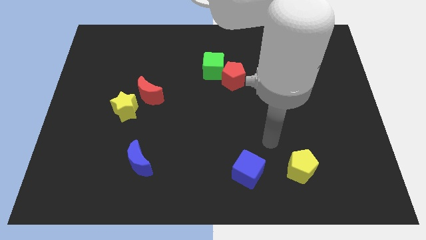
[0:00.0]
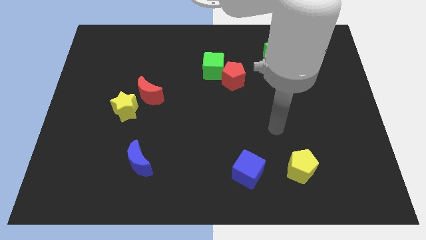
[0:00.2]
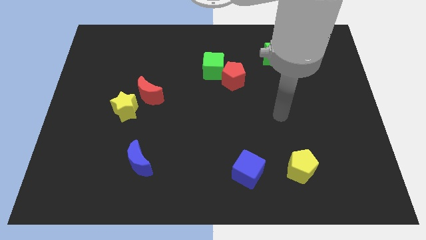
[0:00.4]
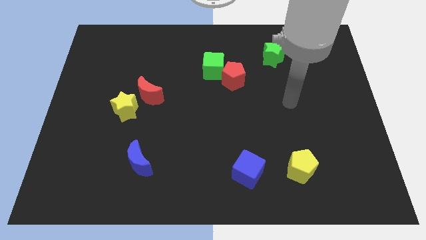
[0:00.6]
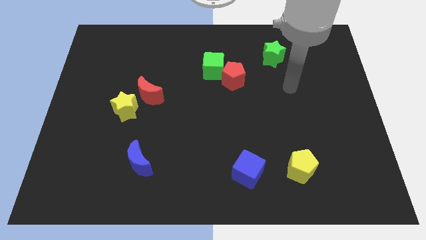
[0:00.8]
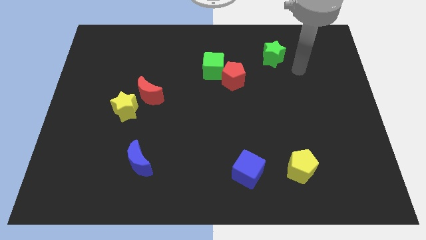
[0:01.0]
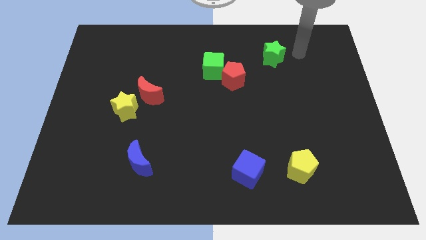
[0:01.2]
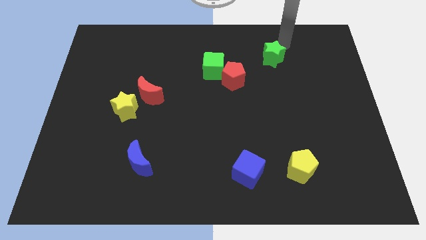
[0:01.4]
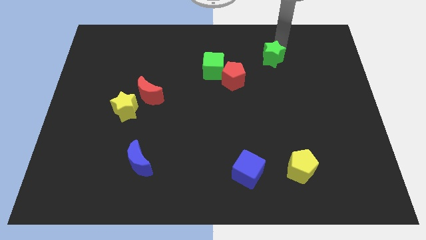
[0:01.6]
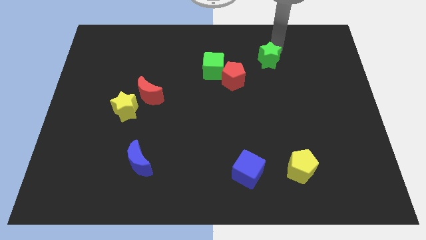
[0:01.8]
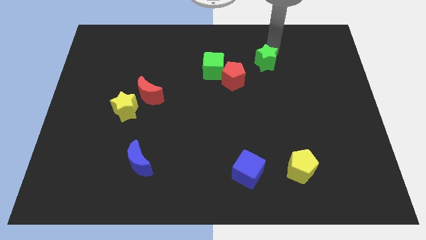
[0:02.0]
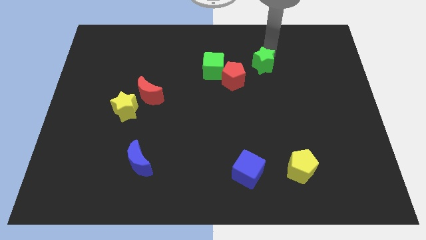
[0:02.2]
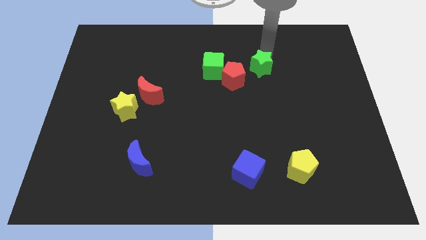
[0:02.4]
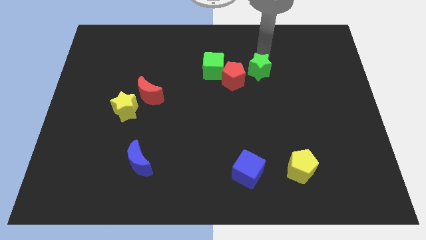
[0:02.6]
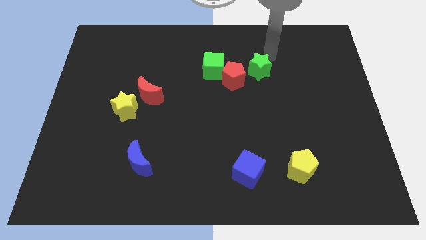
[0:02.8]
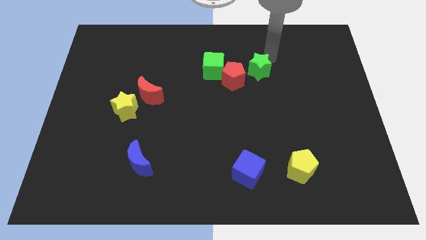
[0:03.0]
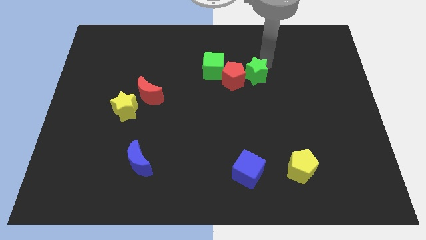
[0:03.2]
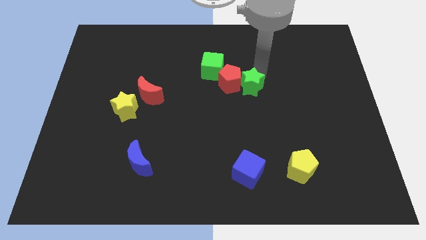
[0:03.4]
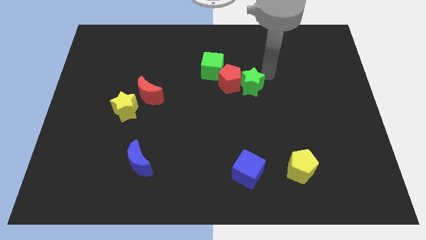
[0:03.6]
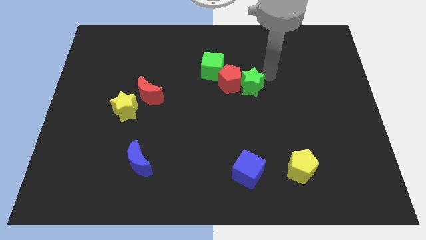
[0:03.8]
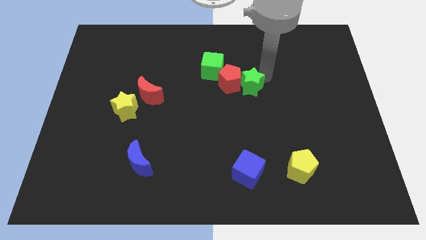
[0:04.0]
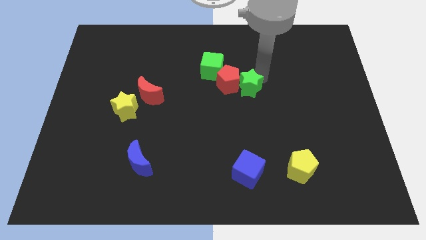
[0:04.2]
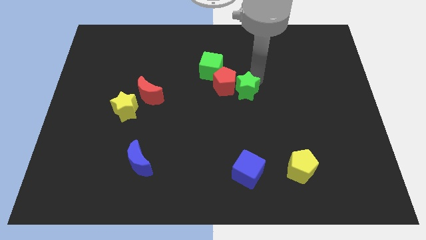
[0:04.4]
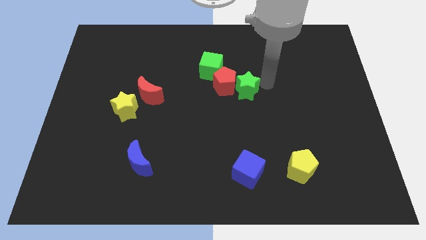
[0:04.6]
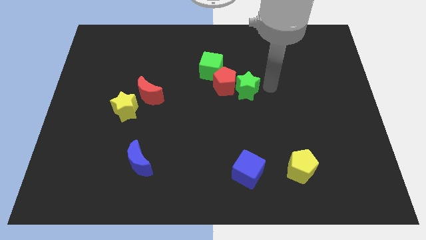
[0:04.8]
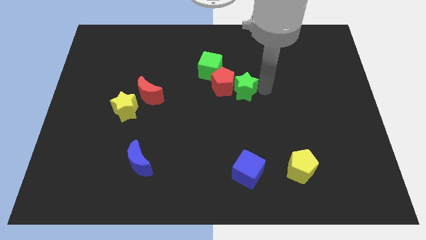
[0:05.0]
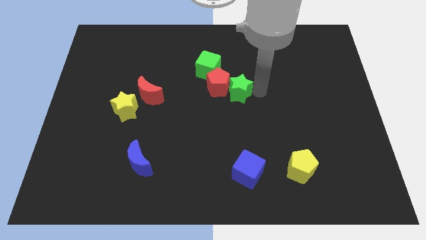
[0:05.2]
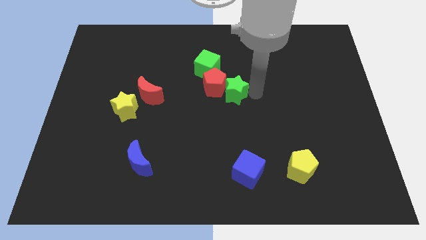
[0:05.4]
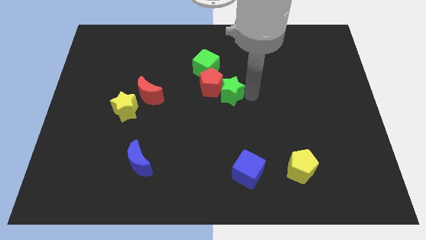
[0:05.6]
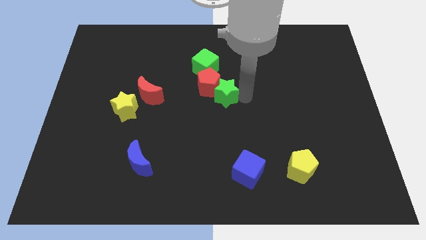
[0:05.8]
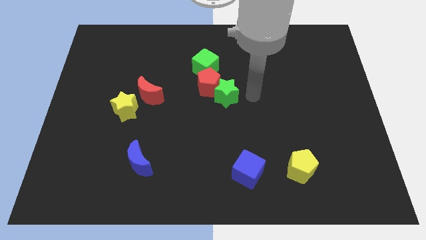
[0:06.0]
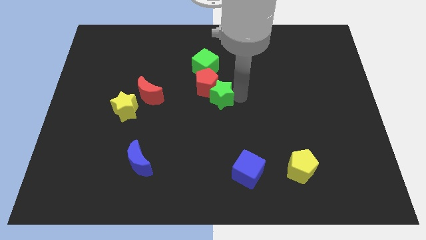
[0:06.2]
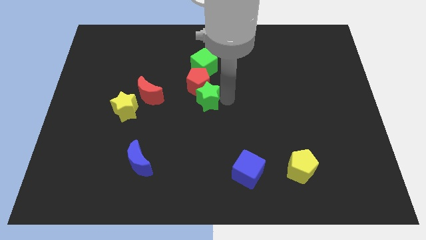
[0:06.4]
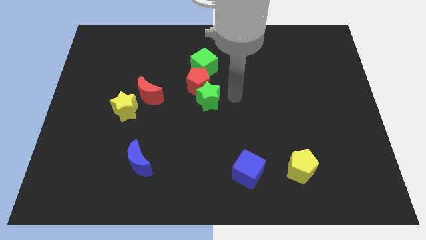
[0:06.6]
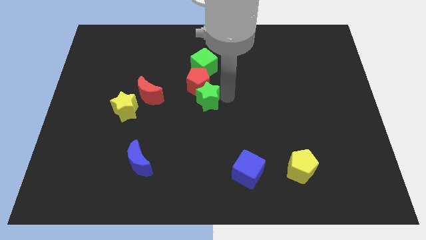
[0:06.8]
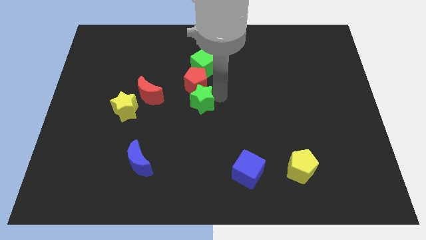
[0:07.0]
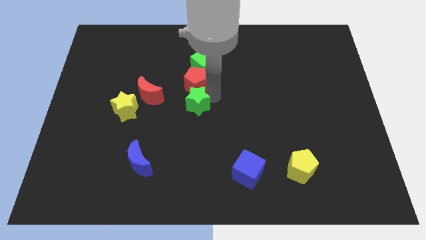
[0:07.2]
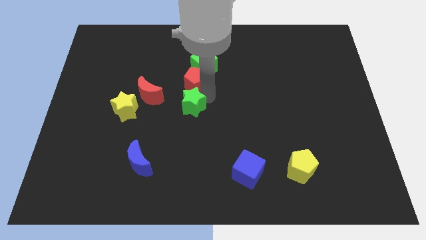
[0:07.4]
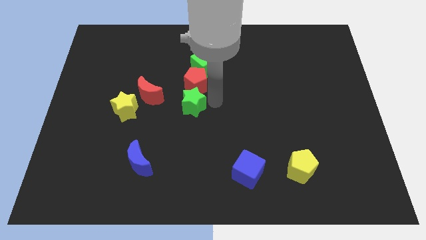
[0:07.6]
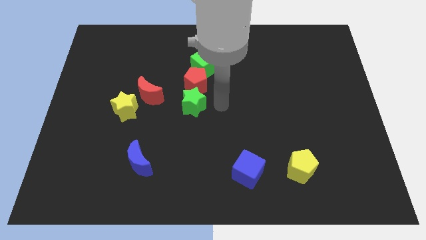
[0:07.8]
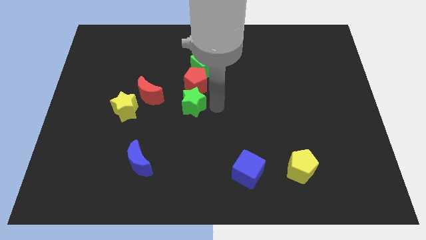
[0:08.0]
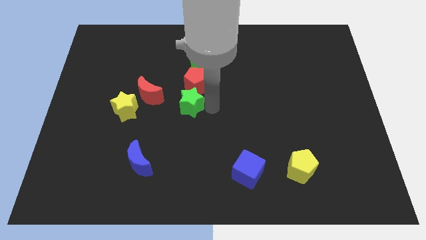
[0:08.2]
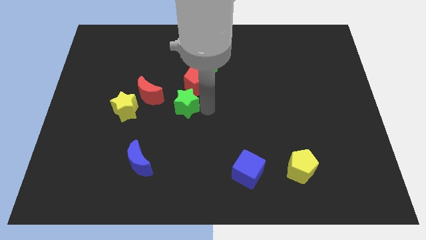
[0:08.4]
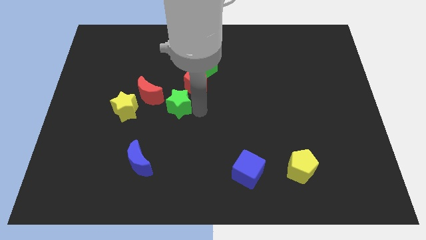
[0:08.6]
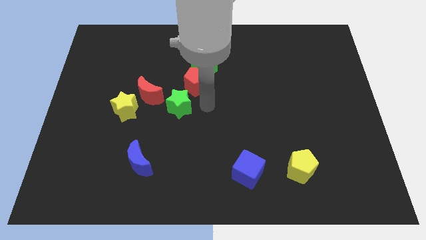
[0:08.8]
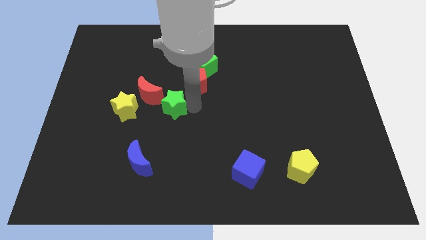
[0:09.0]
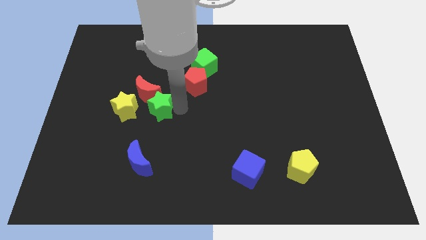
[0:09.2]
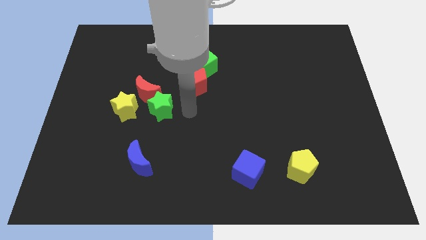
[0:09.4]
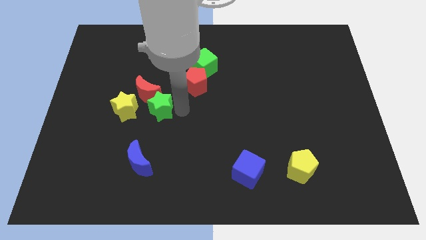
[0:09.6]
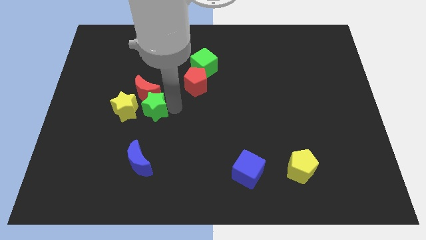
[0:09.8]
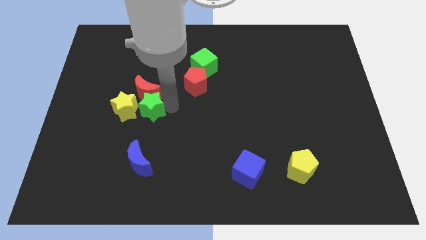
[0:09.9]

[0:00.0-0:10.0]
slide the green star to the yellow star

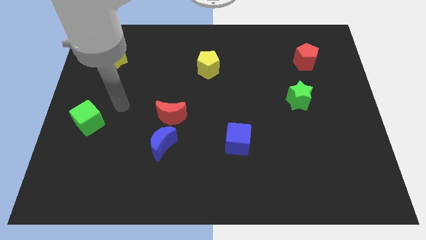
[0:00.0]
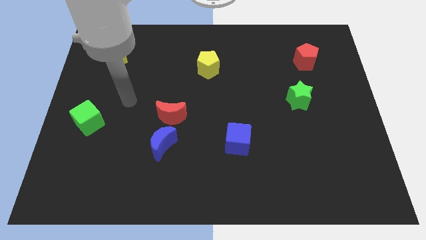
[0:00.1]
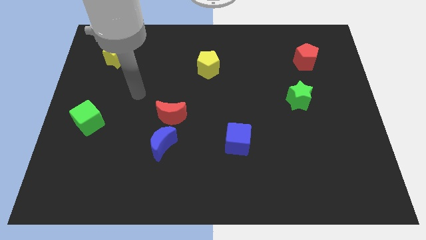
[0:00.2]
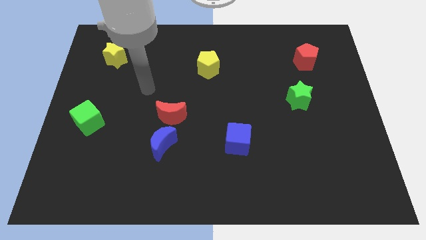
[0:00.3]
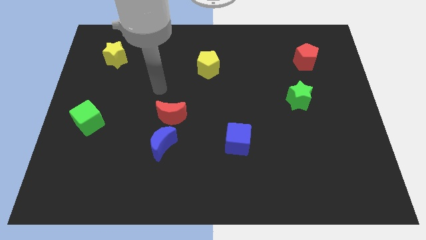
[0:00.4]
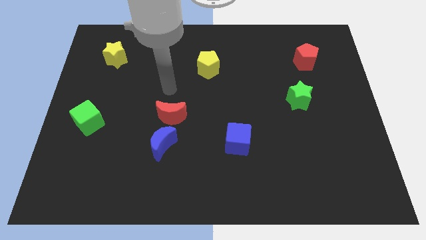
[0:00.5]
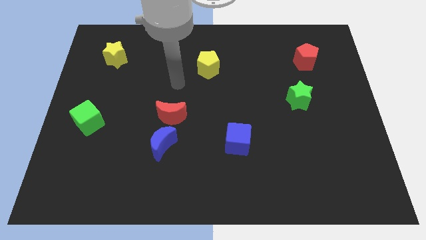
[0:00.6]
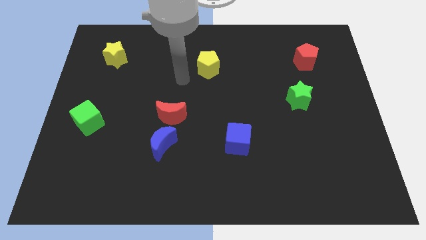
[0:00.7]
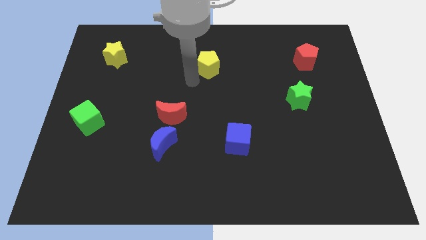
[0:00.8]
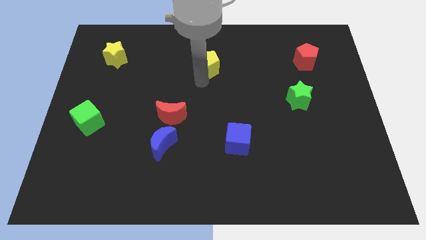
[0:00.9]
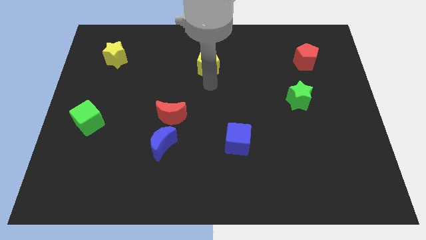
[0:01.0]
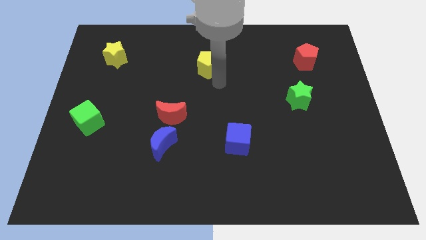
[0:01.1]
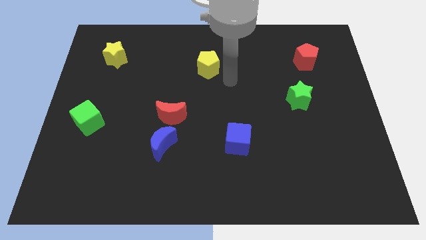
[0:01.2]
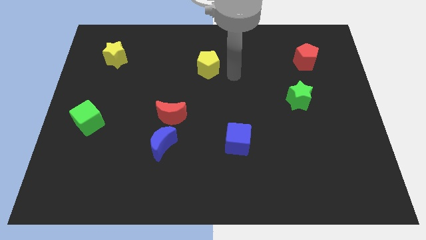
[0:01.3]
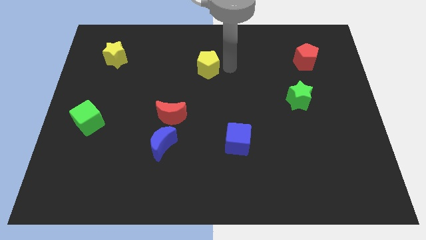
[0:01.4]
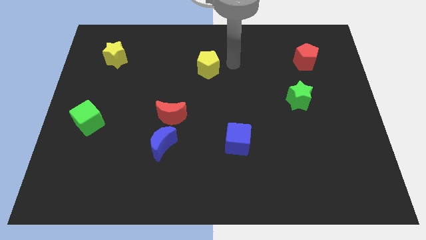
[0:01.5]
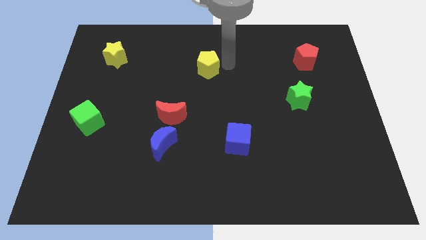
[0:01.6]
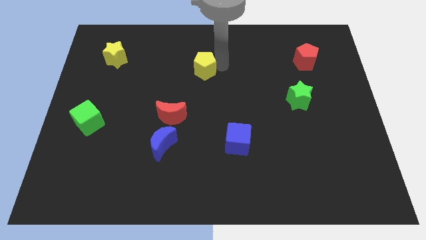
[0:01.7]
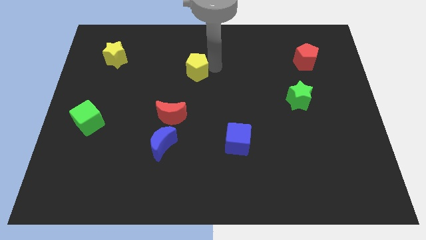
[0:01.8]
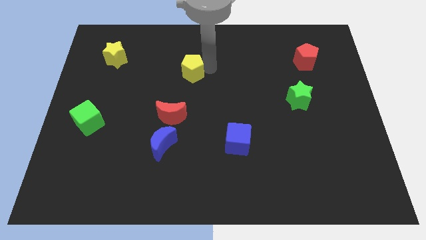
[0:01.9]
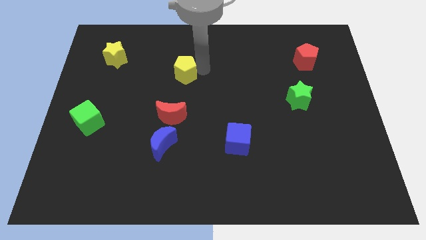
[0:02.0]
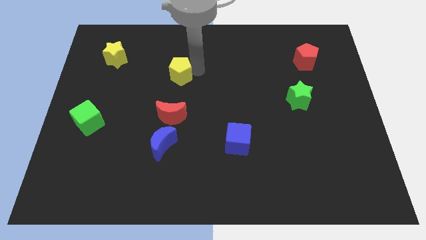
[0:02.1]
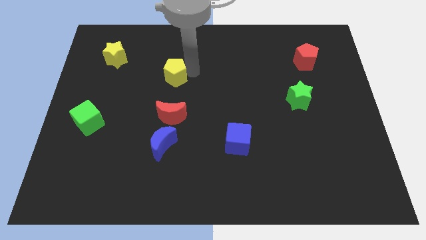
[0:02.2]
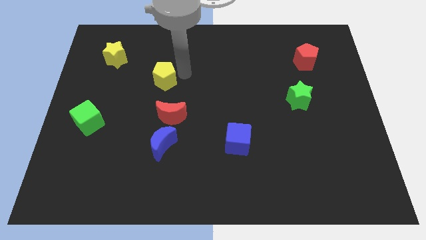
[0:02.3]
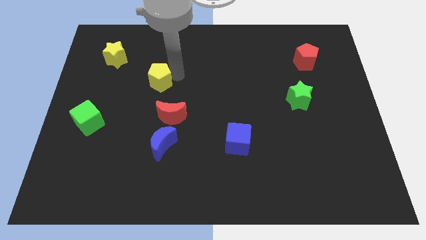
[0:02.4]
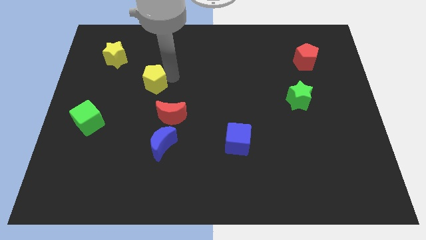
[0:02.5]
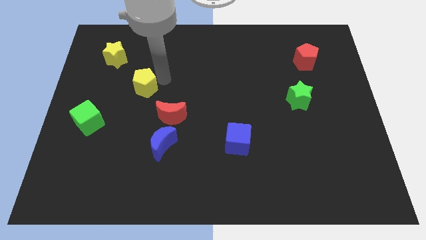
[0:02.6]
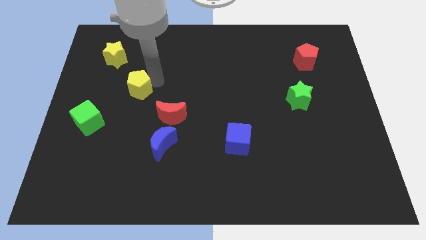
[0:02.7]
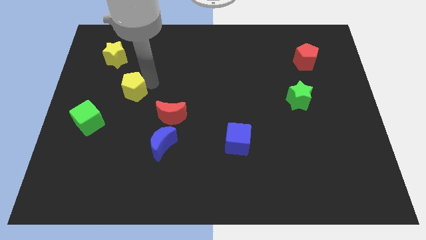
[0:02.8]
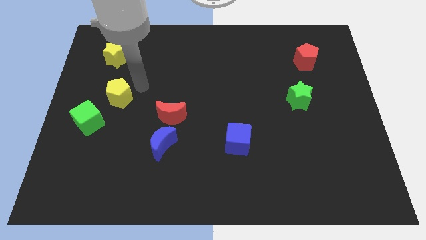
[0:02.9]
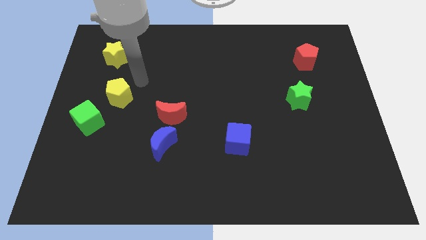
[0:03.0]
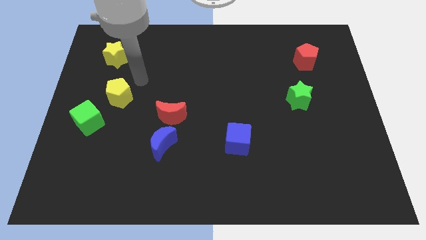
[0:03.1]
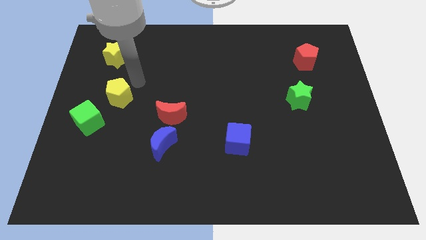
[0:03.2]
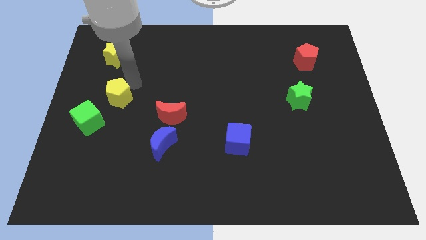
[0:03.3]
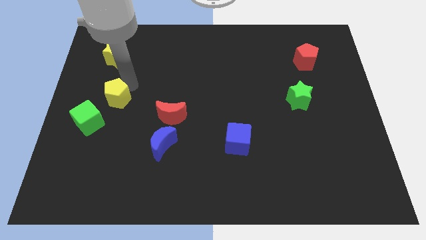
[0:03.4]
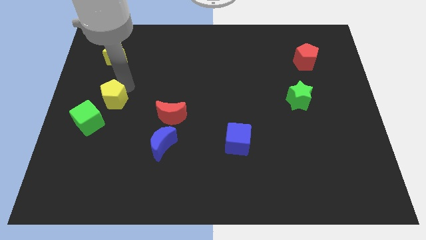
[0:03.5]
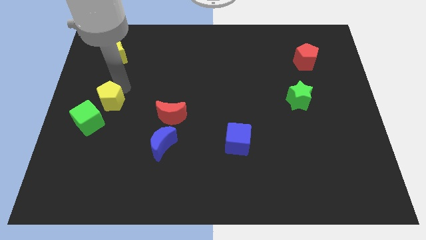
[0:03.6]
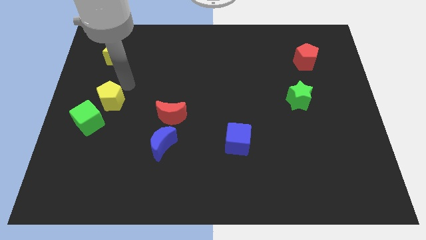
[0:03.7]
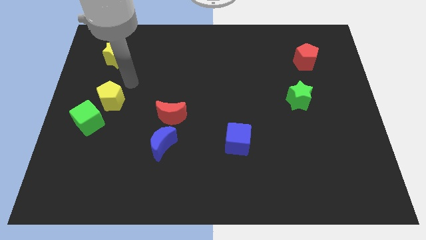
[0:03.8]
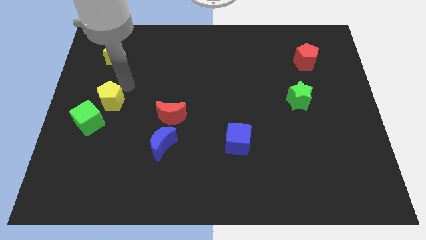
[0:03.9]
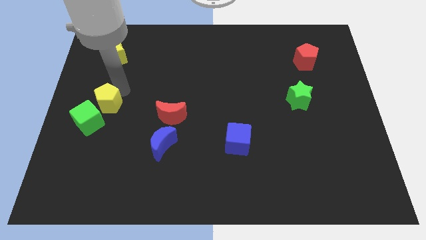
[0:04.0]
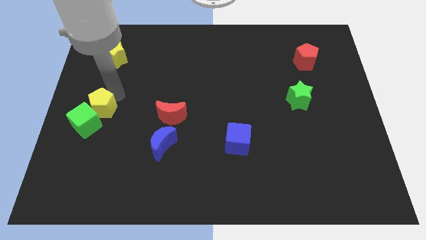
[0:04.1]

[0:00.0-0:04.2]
slide the yellow pentagon next to the green cube
